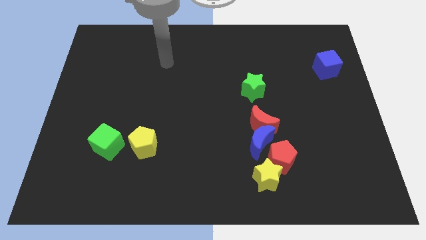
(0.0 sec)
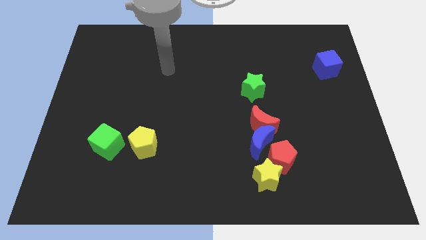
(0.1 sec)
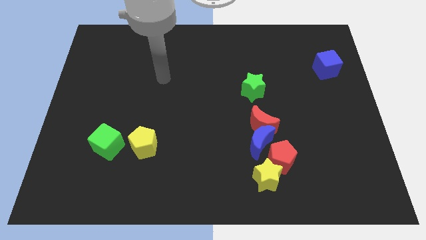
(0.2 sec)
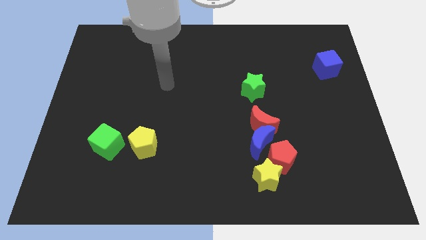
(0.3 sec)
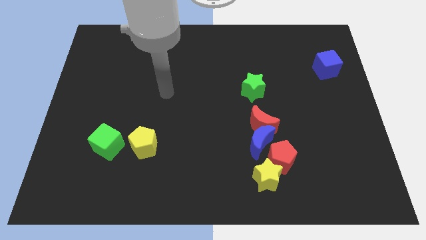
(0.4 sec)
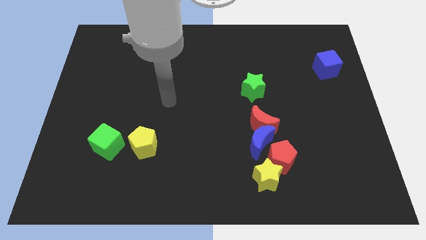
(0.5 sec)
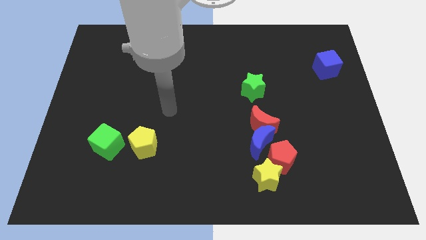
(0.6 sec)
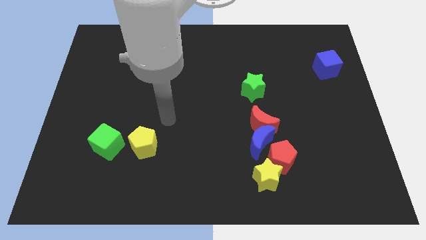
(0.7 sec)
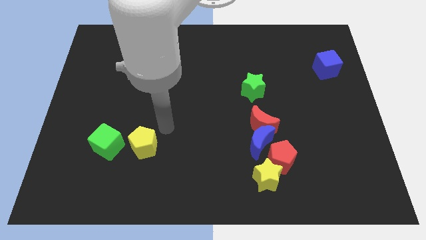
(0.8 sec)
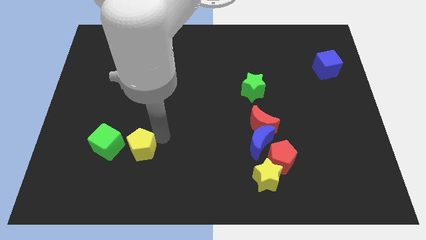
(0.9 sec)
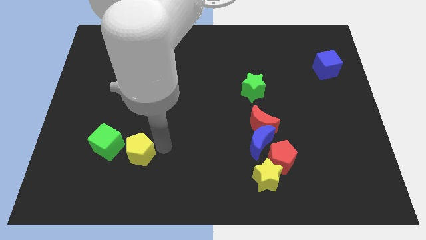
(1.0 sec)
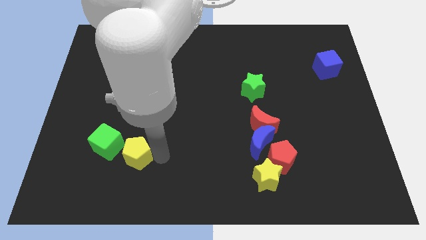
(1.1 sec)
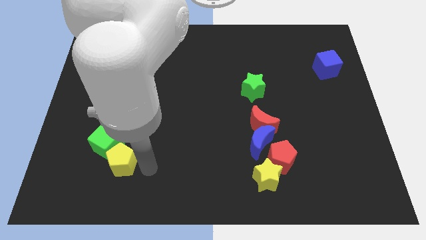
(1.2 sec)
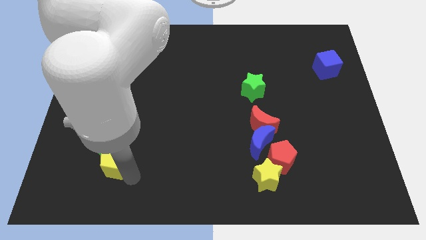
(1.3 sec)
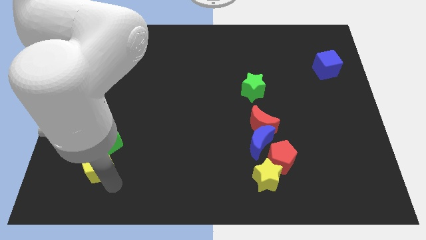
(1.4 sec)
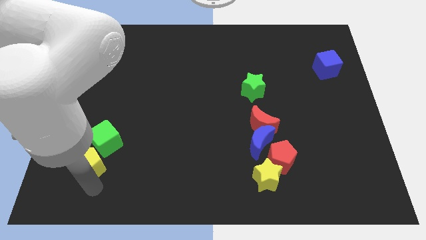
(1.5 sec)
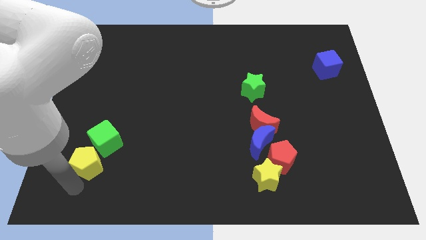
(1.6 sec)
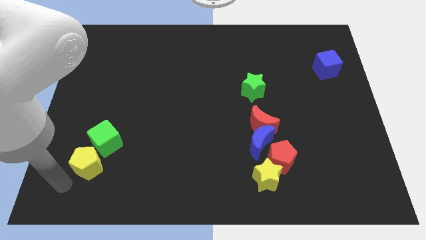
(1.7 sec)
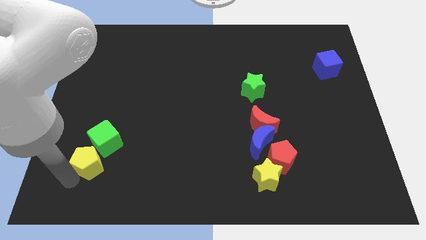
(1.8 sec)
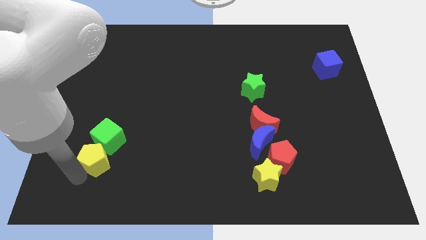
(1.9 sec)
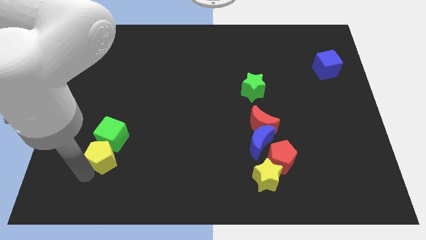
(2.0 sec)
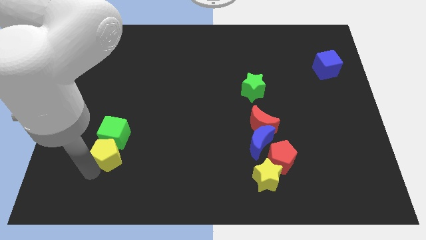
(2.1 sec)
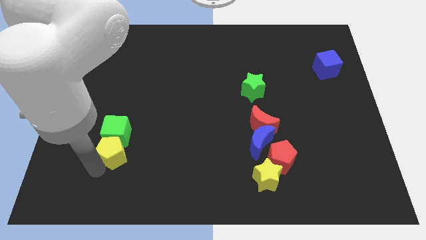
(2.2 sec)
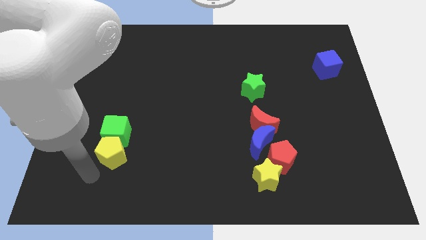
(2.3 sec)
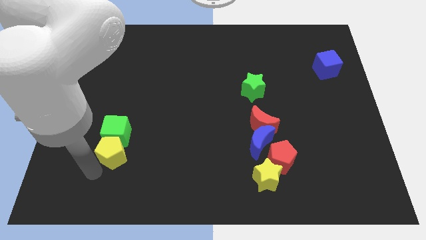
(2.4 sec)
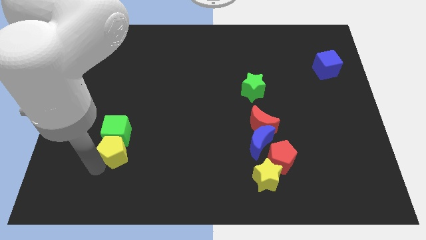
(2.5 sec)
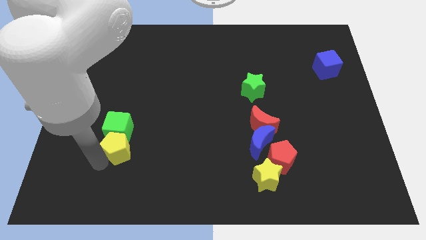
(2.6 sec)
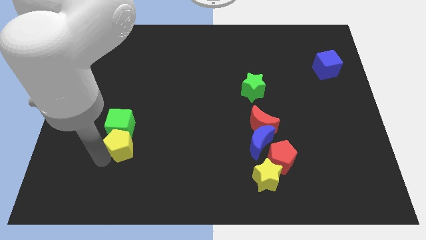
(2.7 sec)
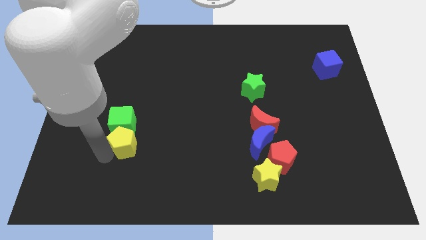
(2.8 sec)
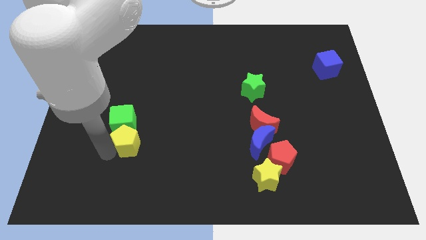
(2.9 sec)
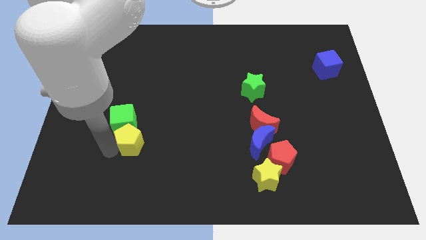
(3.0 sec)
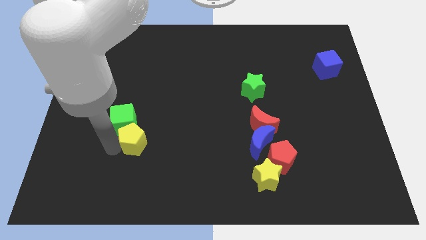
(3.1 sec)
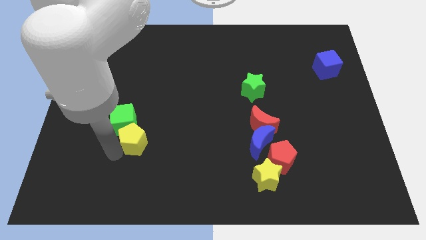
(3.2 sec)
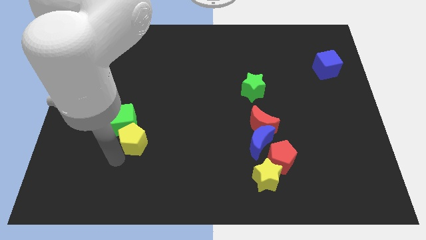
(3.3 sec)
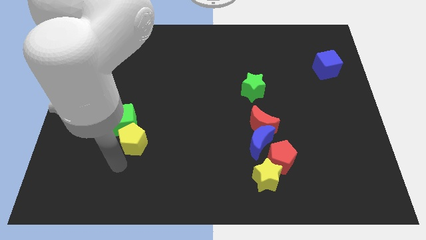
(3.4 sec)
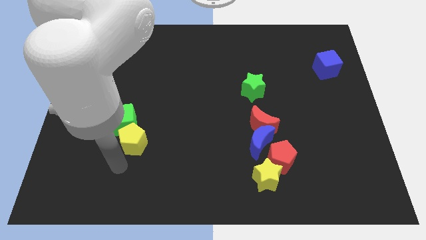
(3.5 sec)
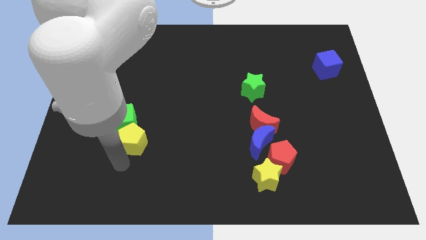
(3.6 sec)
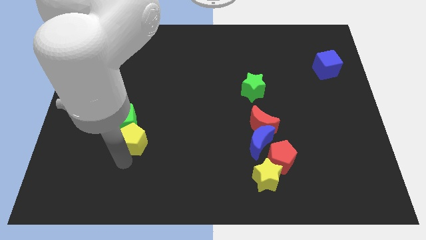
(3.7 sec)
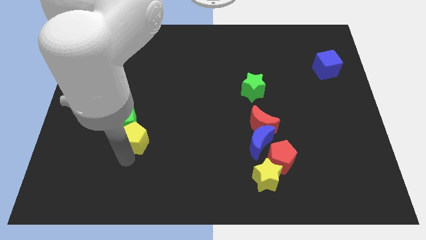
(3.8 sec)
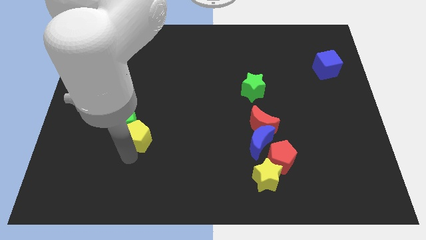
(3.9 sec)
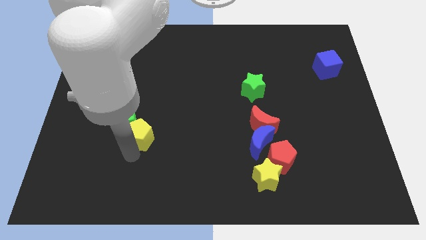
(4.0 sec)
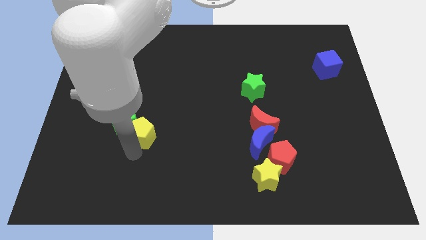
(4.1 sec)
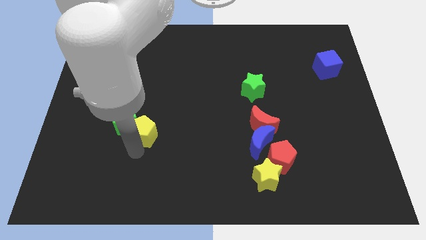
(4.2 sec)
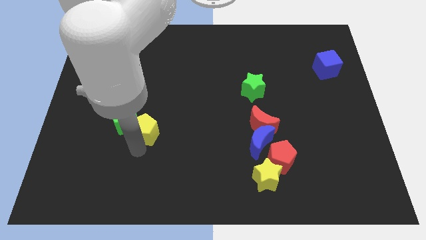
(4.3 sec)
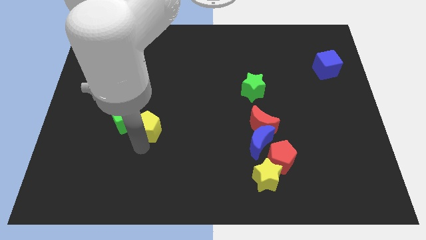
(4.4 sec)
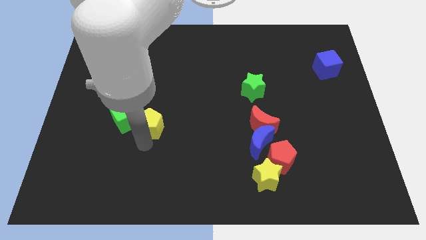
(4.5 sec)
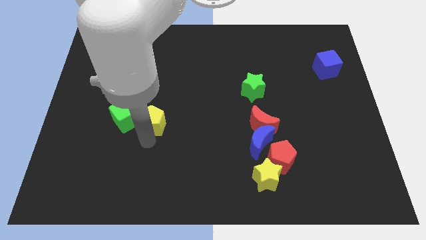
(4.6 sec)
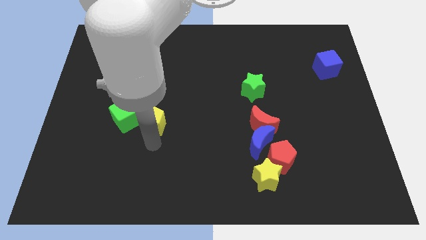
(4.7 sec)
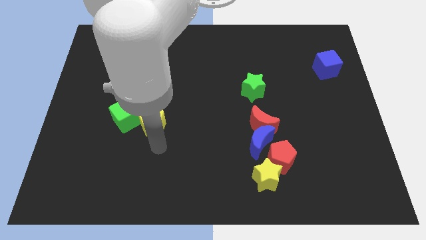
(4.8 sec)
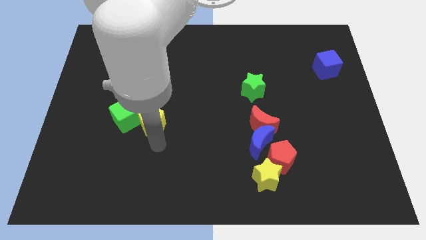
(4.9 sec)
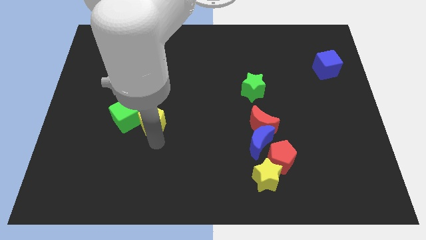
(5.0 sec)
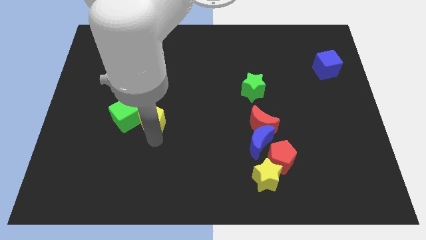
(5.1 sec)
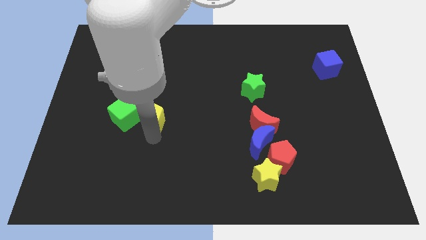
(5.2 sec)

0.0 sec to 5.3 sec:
slide the yellow pentagon somewhat up

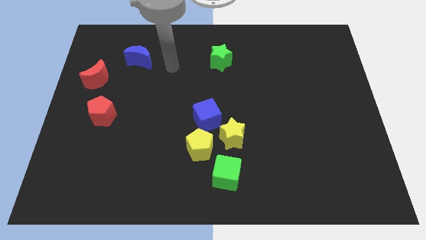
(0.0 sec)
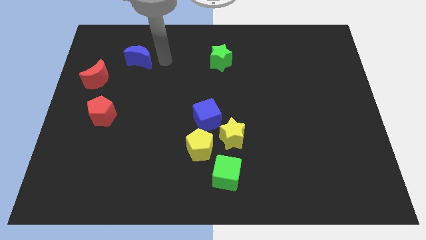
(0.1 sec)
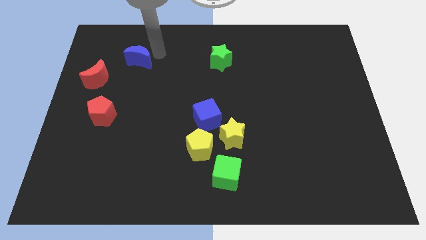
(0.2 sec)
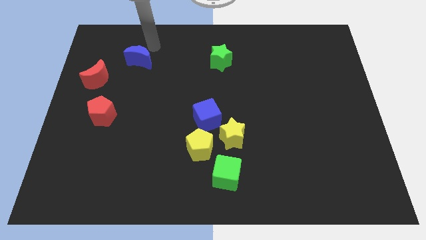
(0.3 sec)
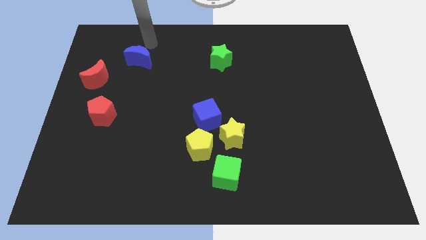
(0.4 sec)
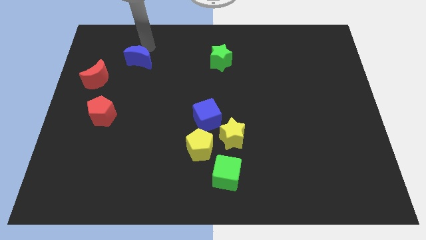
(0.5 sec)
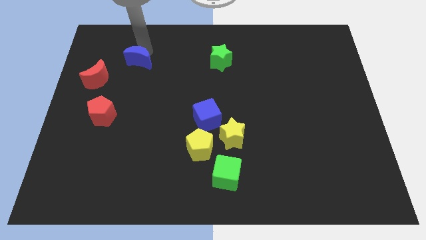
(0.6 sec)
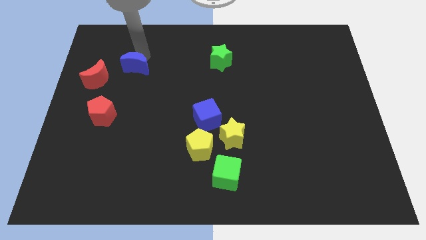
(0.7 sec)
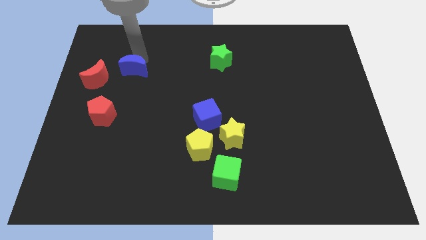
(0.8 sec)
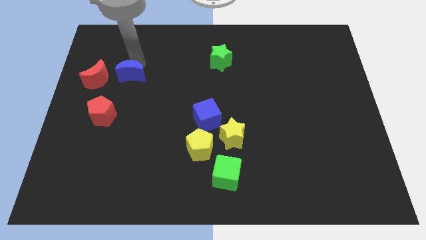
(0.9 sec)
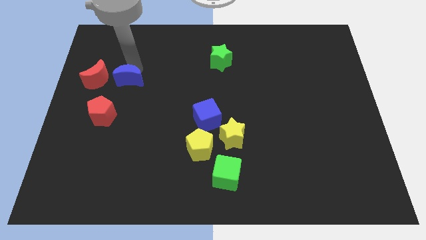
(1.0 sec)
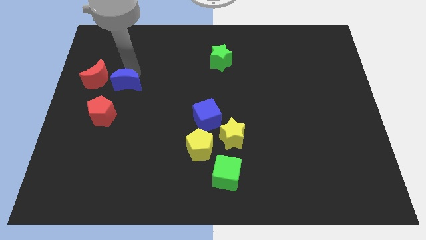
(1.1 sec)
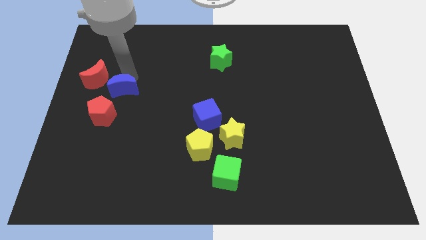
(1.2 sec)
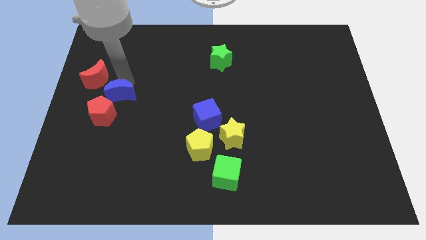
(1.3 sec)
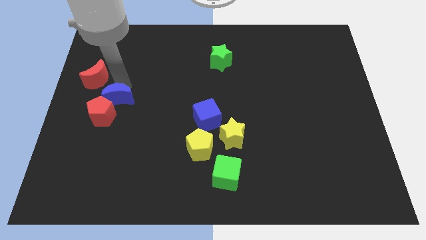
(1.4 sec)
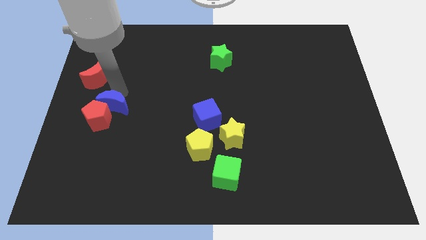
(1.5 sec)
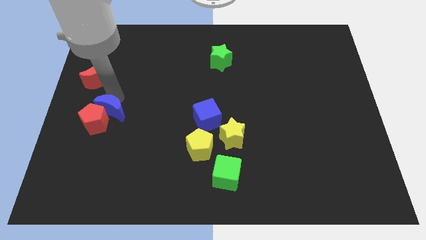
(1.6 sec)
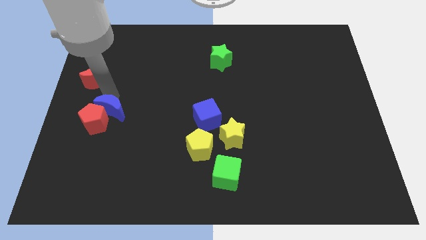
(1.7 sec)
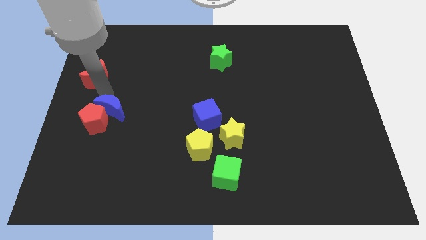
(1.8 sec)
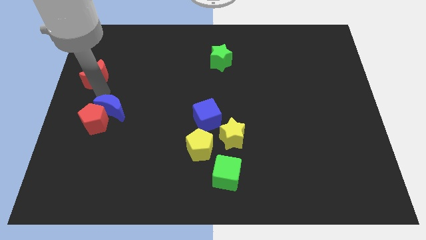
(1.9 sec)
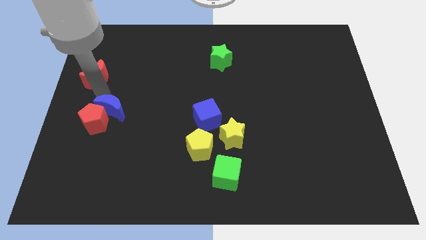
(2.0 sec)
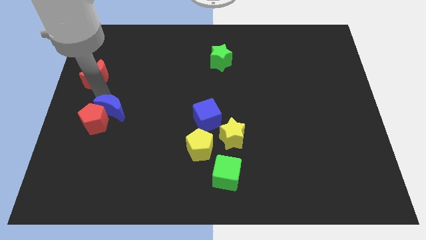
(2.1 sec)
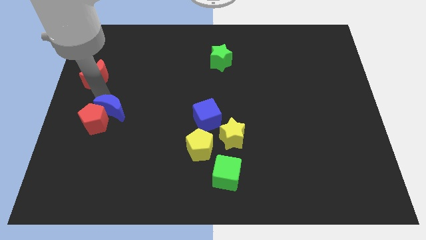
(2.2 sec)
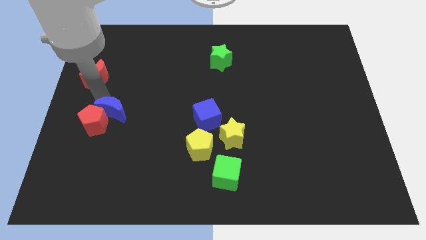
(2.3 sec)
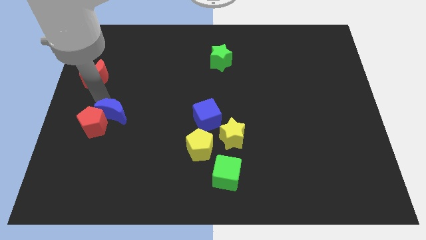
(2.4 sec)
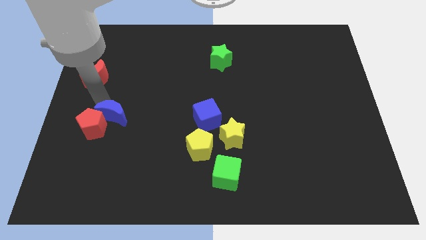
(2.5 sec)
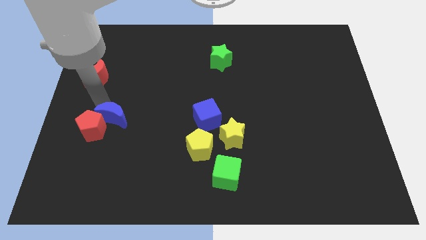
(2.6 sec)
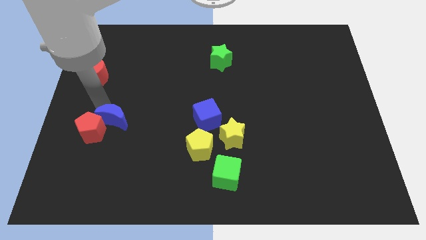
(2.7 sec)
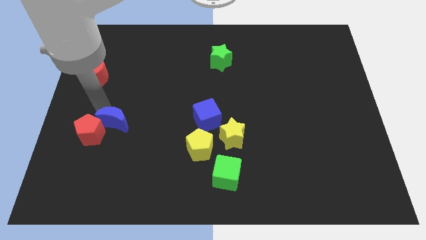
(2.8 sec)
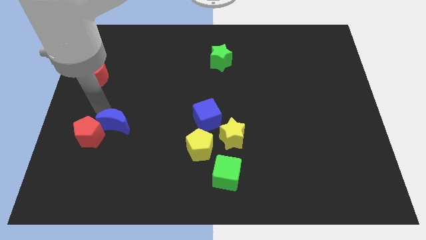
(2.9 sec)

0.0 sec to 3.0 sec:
slide the blue moon downwards
